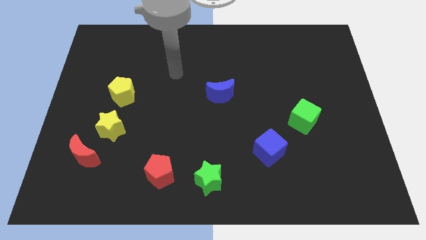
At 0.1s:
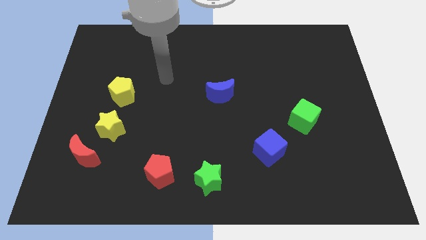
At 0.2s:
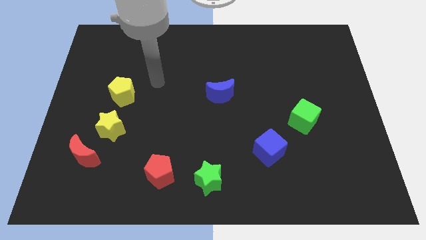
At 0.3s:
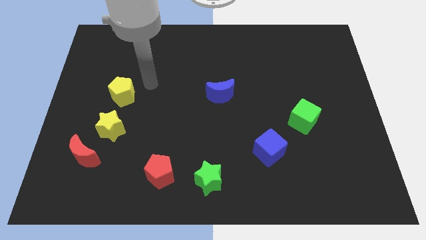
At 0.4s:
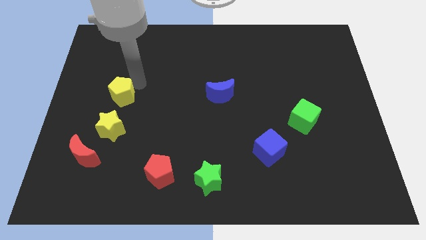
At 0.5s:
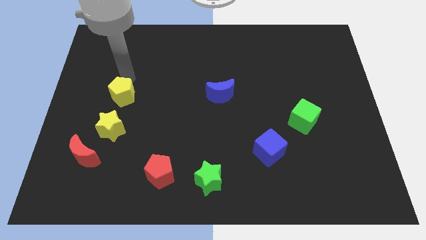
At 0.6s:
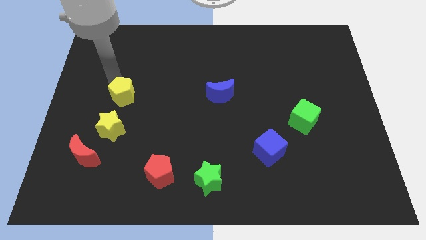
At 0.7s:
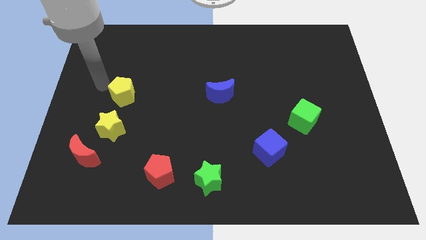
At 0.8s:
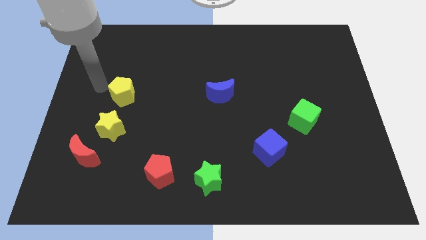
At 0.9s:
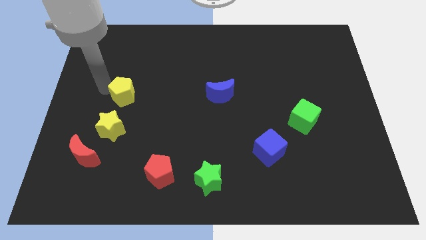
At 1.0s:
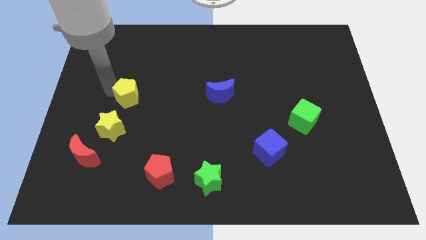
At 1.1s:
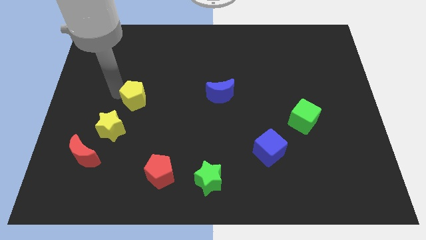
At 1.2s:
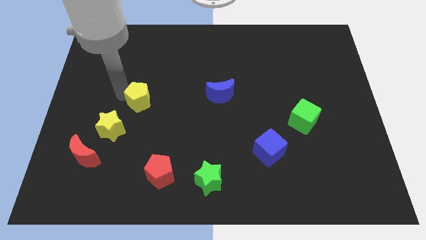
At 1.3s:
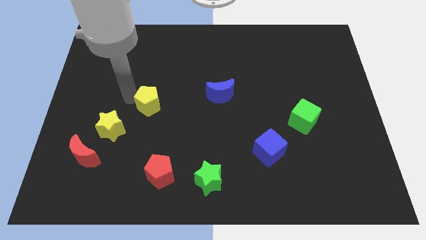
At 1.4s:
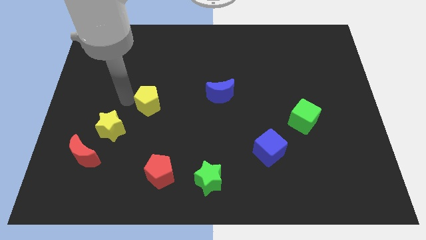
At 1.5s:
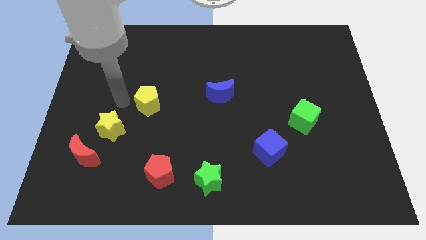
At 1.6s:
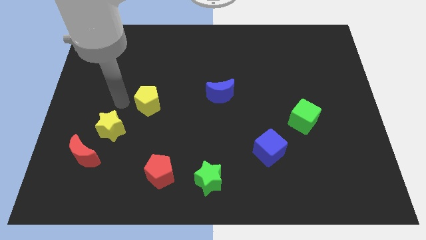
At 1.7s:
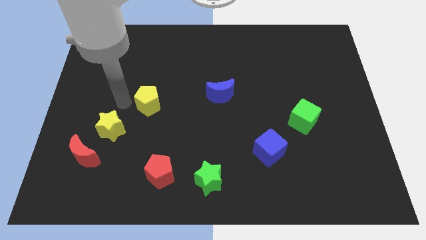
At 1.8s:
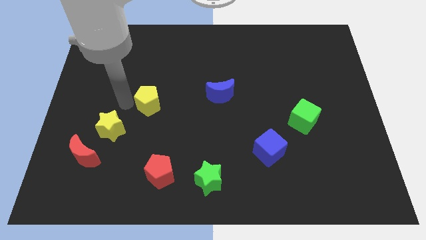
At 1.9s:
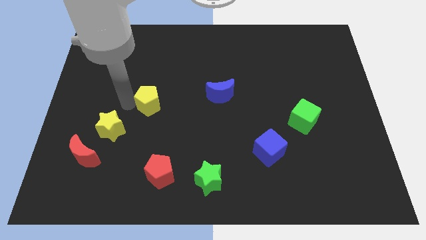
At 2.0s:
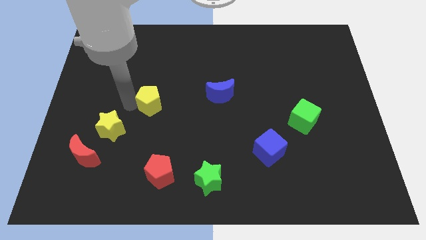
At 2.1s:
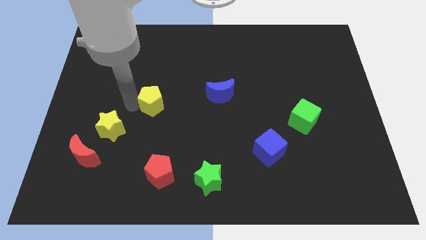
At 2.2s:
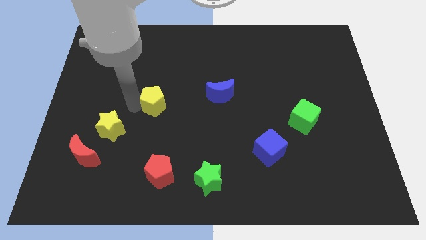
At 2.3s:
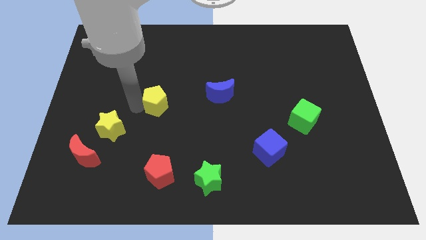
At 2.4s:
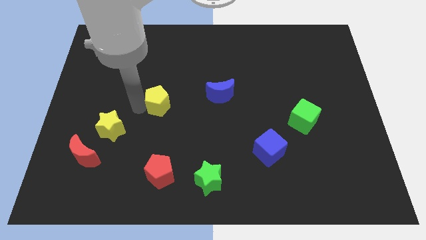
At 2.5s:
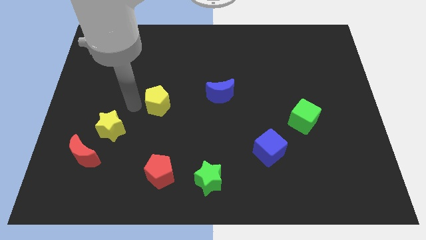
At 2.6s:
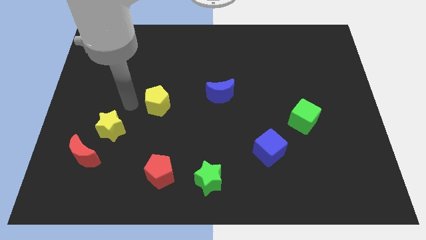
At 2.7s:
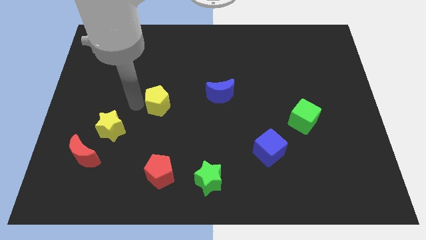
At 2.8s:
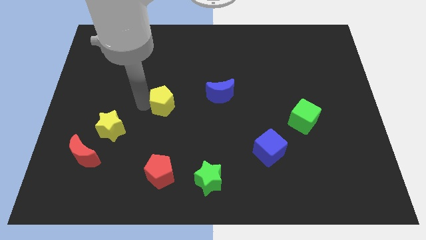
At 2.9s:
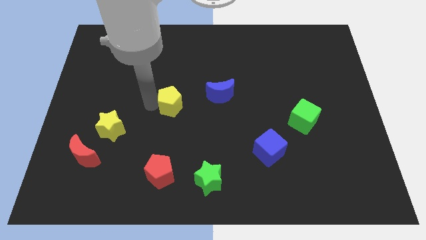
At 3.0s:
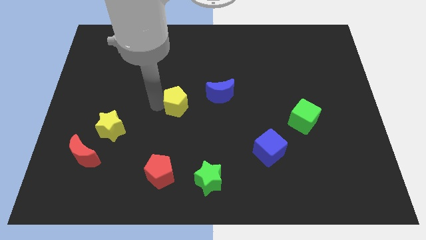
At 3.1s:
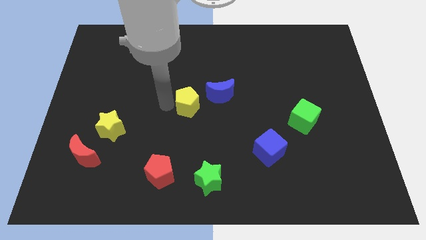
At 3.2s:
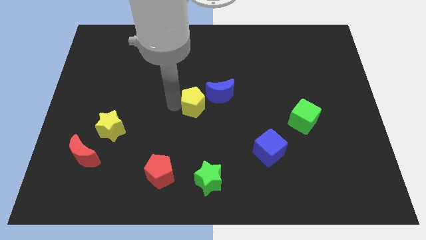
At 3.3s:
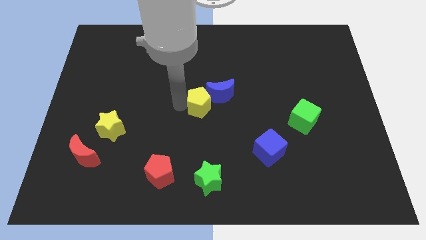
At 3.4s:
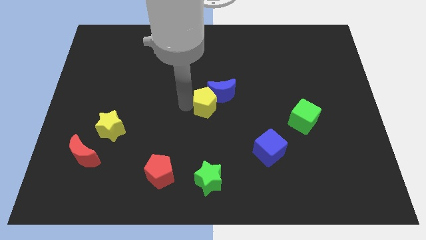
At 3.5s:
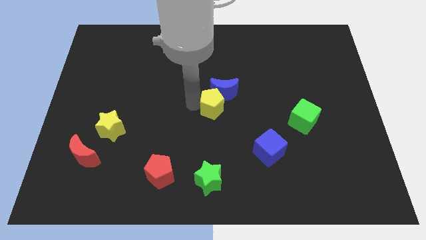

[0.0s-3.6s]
slide the yellow pentagon to the right

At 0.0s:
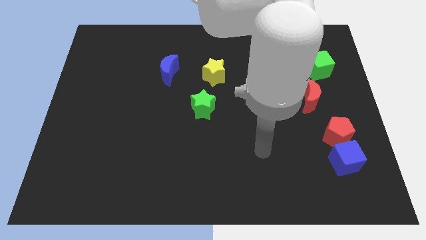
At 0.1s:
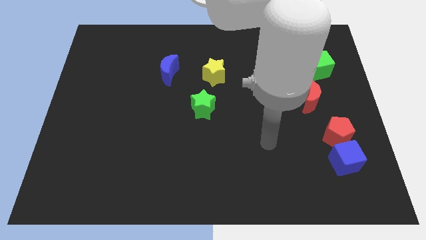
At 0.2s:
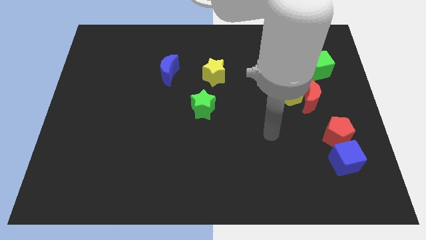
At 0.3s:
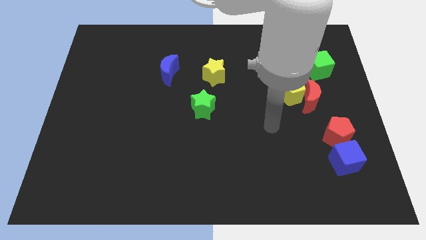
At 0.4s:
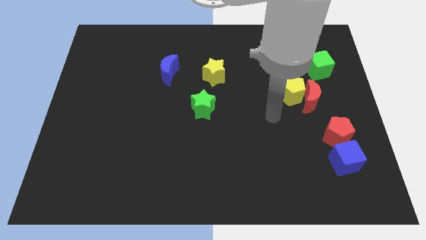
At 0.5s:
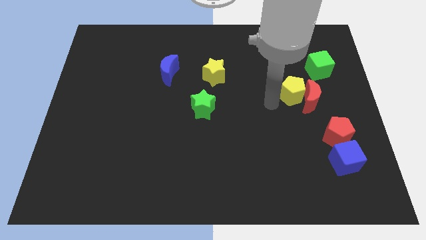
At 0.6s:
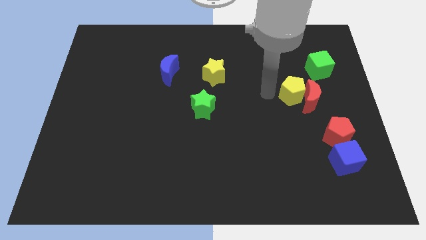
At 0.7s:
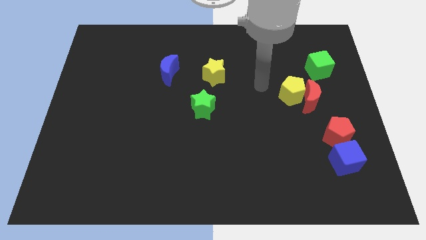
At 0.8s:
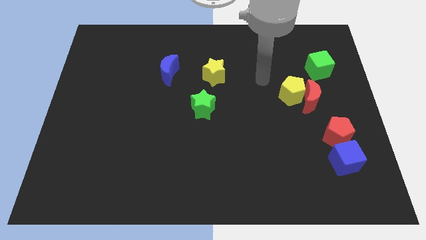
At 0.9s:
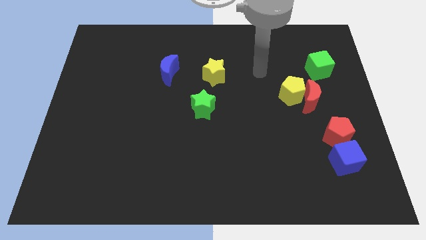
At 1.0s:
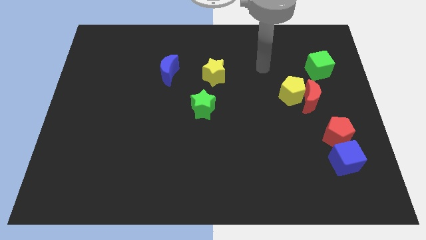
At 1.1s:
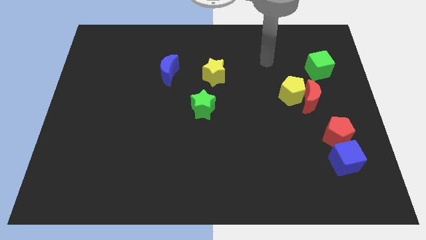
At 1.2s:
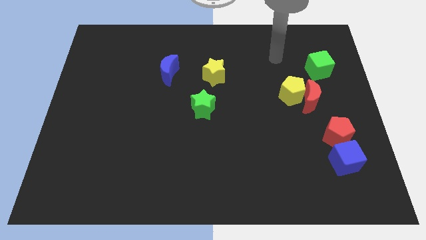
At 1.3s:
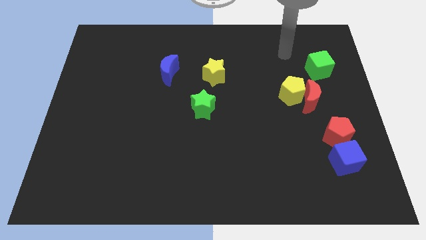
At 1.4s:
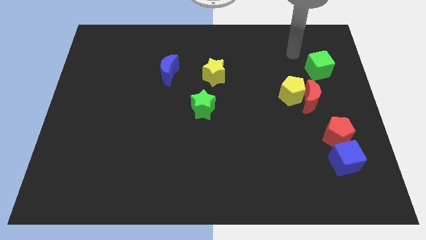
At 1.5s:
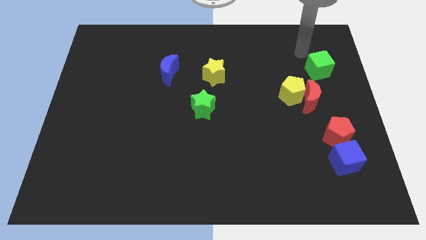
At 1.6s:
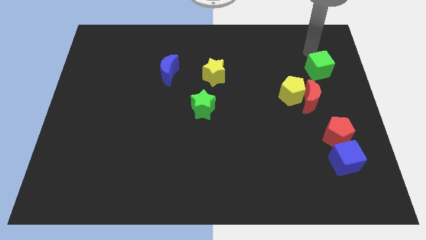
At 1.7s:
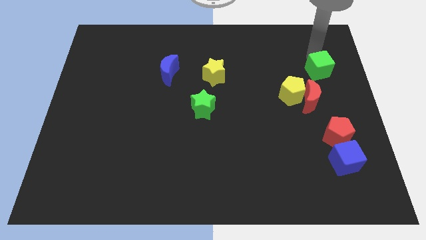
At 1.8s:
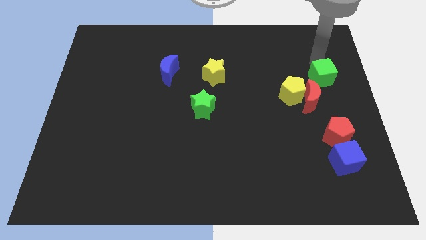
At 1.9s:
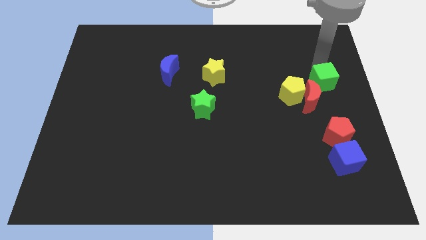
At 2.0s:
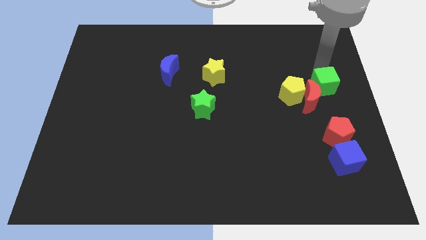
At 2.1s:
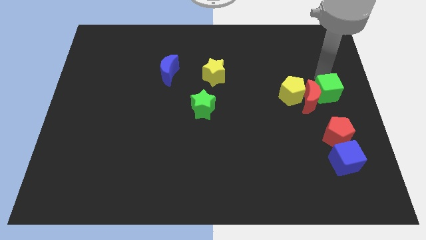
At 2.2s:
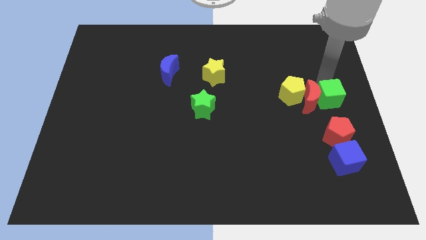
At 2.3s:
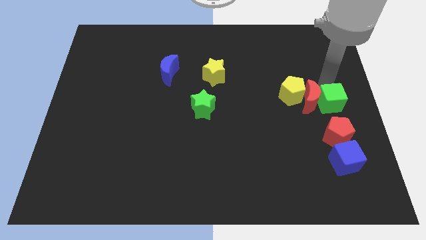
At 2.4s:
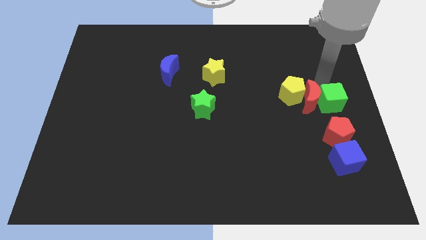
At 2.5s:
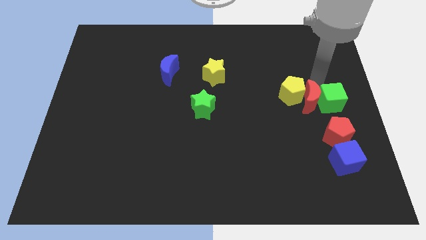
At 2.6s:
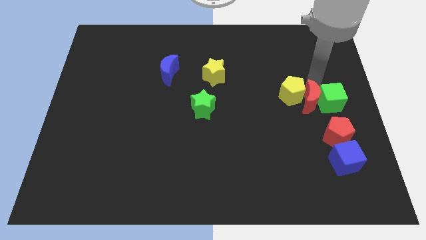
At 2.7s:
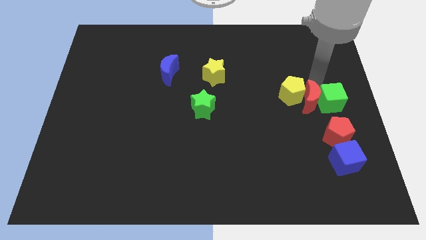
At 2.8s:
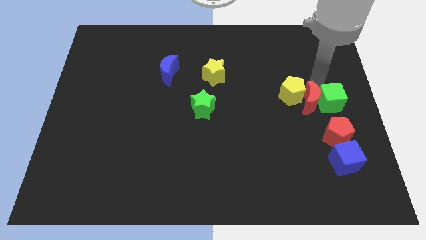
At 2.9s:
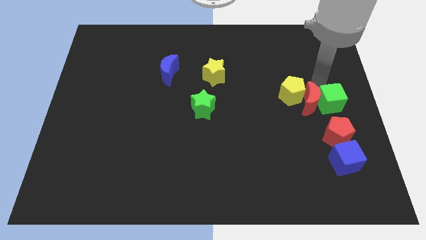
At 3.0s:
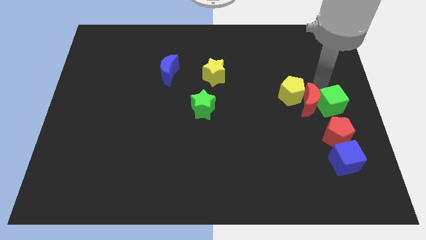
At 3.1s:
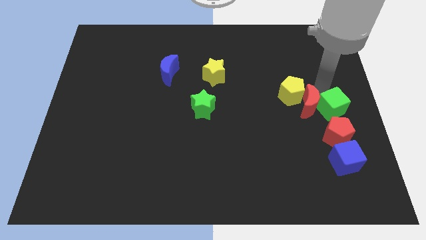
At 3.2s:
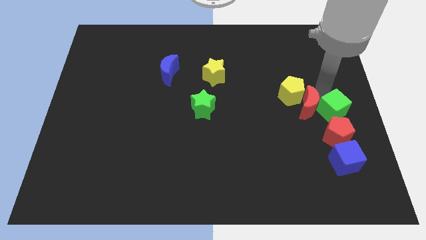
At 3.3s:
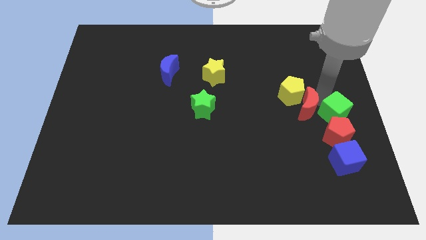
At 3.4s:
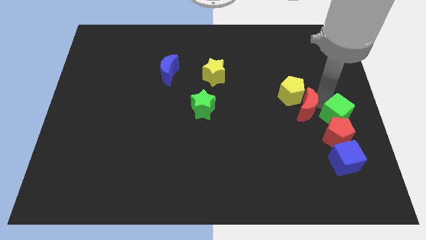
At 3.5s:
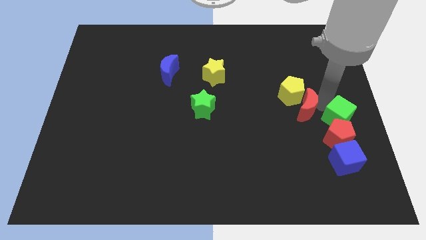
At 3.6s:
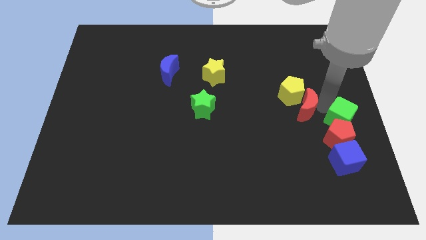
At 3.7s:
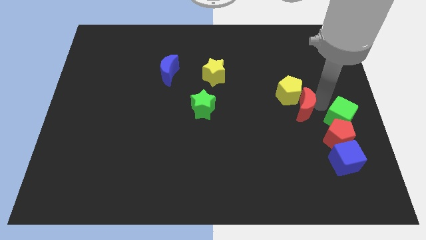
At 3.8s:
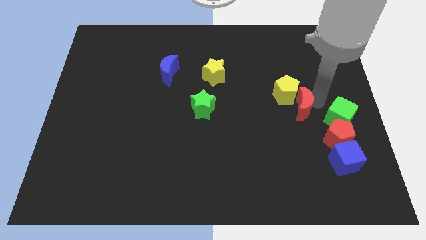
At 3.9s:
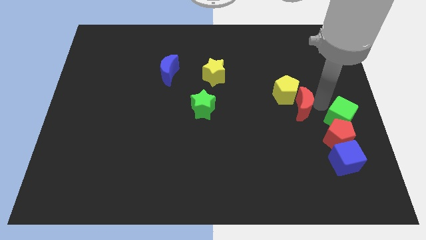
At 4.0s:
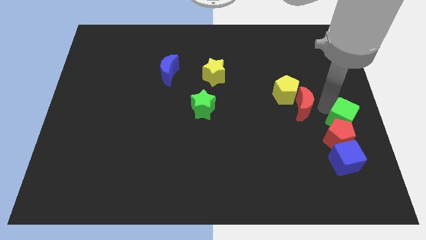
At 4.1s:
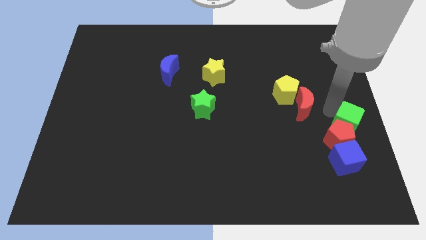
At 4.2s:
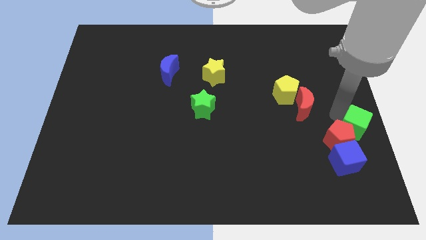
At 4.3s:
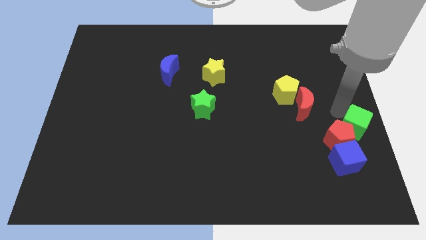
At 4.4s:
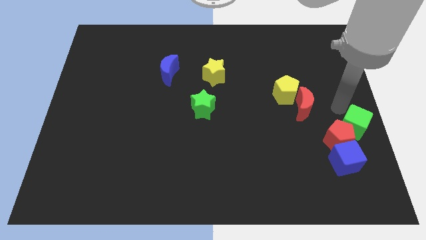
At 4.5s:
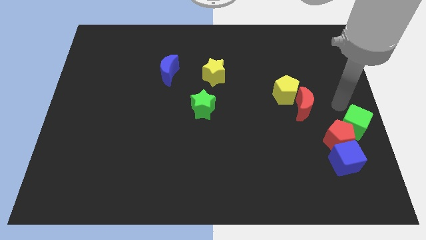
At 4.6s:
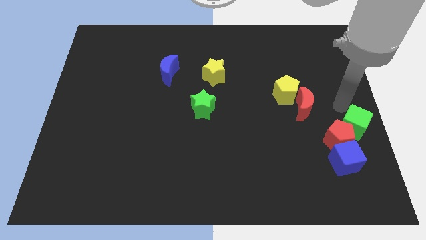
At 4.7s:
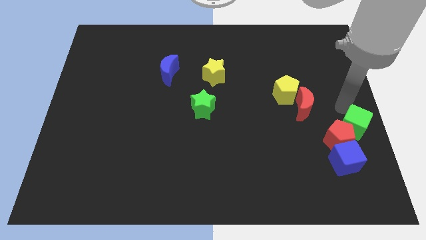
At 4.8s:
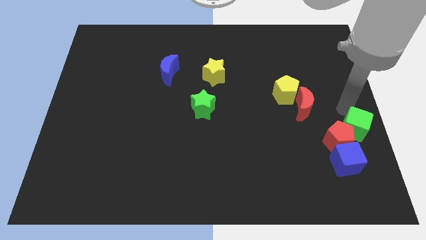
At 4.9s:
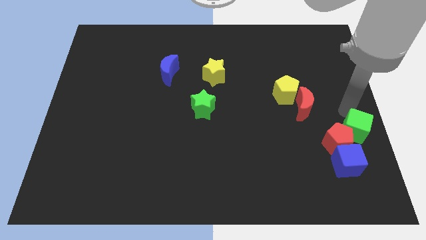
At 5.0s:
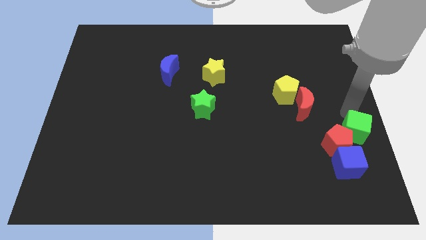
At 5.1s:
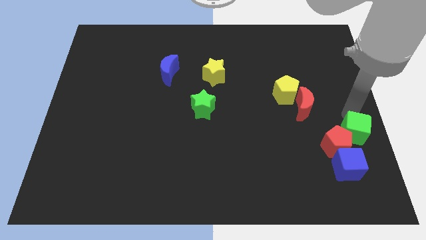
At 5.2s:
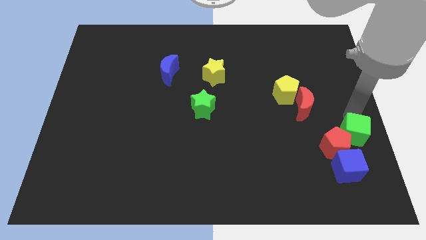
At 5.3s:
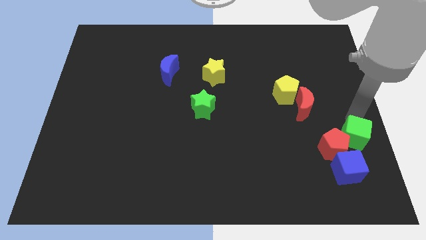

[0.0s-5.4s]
move the green cube down
